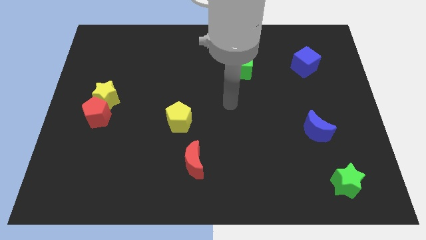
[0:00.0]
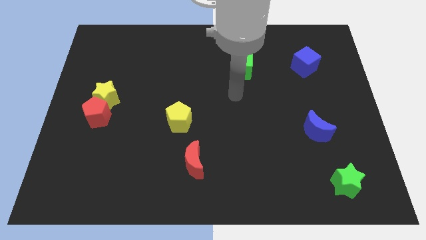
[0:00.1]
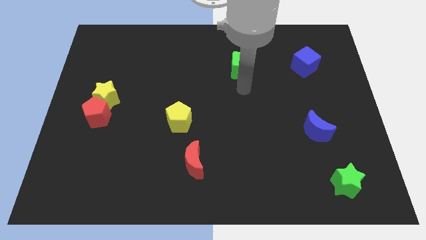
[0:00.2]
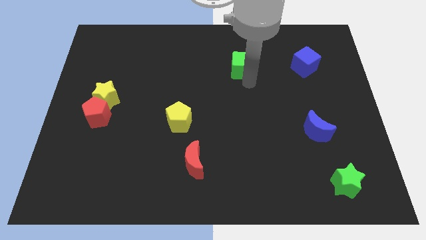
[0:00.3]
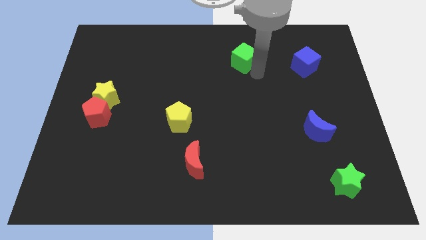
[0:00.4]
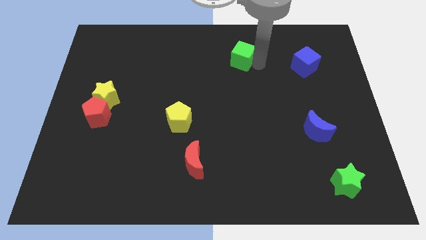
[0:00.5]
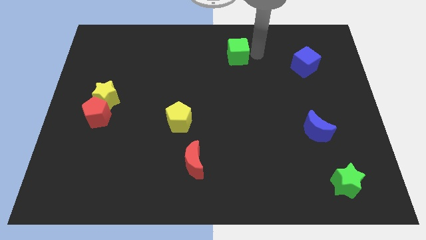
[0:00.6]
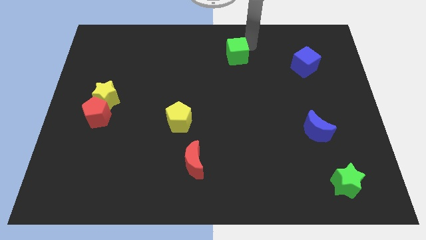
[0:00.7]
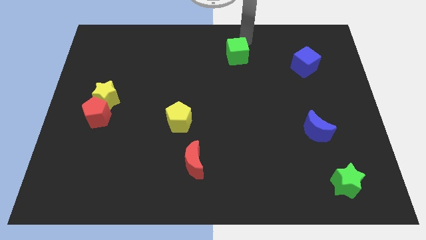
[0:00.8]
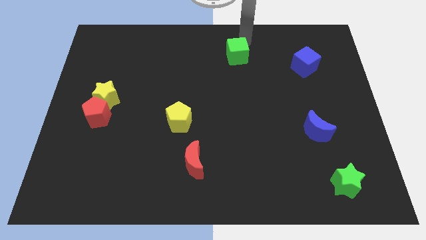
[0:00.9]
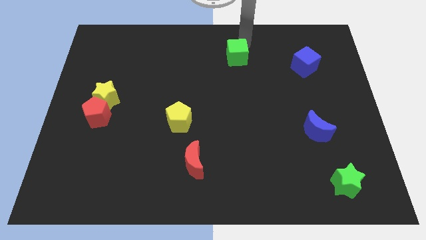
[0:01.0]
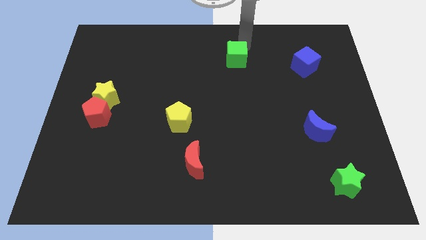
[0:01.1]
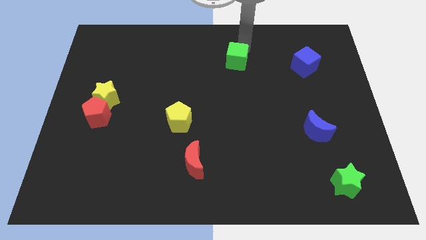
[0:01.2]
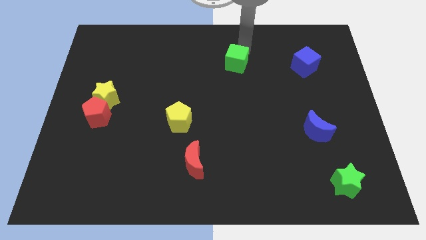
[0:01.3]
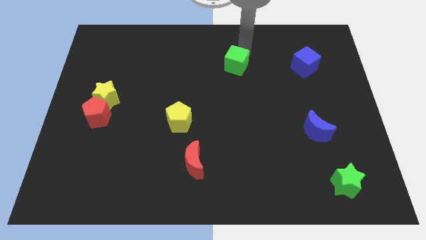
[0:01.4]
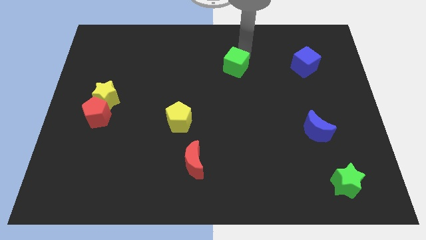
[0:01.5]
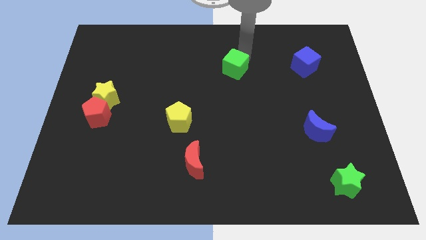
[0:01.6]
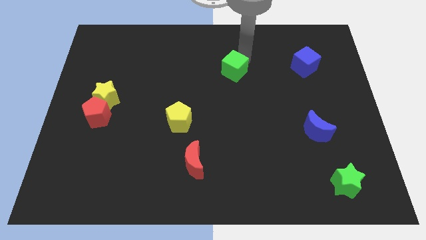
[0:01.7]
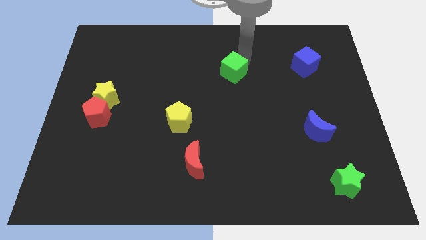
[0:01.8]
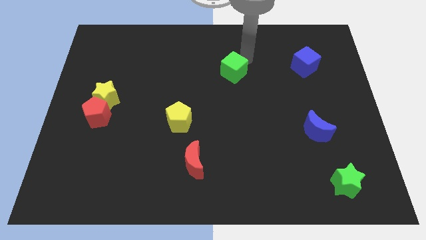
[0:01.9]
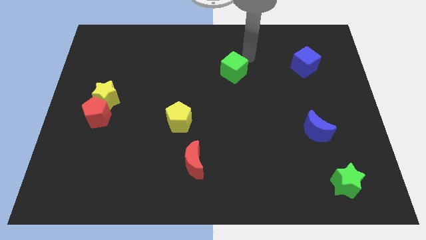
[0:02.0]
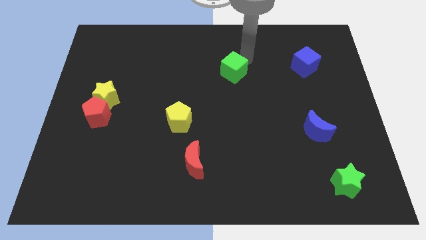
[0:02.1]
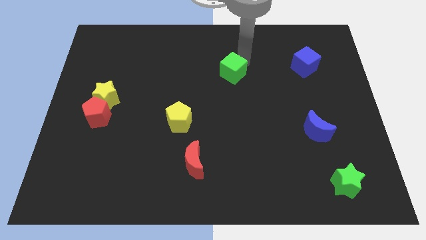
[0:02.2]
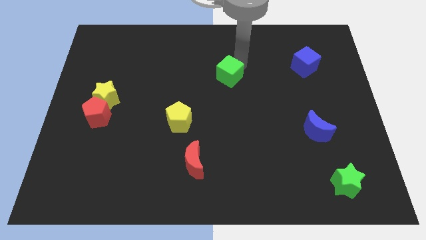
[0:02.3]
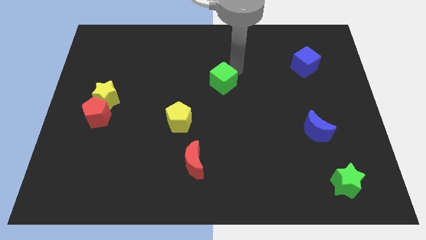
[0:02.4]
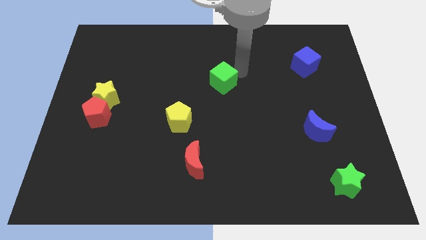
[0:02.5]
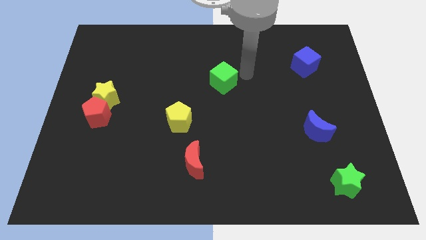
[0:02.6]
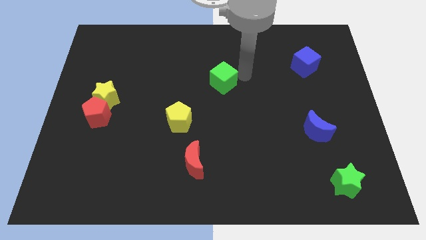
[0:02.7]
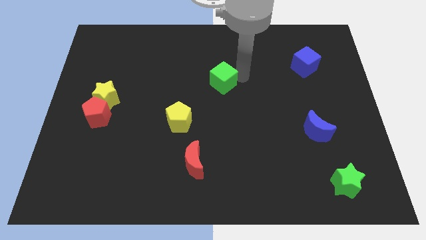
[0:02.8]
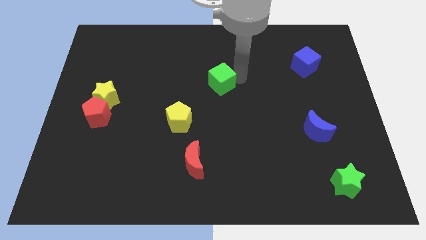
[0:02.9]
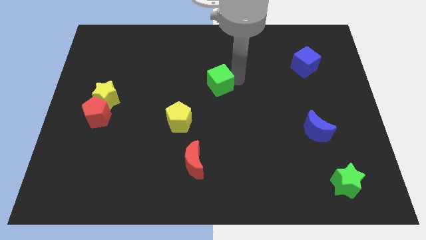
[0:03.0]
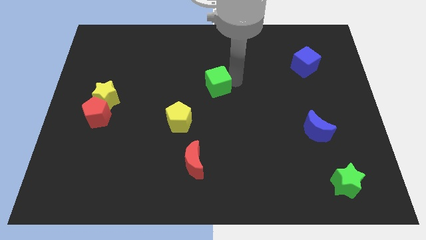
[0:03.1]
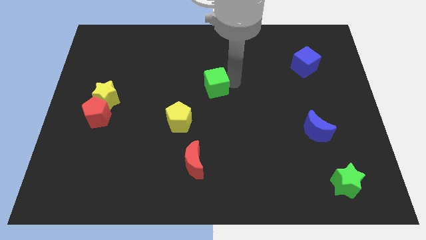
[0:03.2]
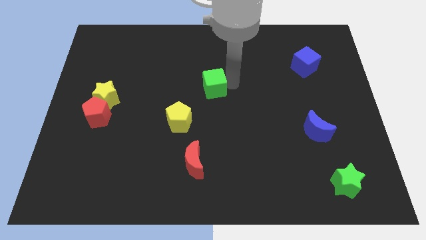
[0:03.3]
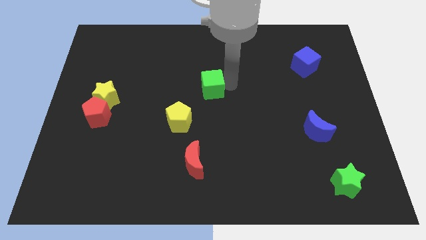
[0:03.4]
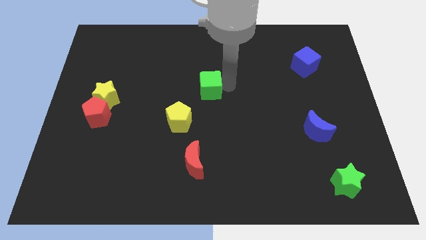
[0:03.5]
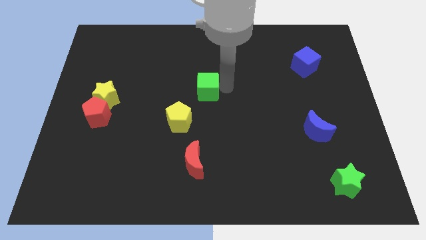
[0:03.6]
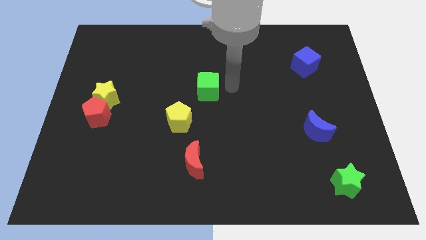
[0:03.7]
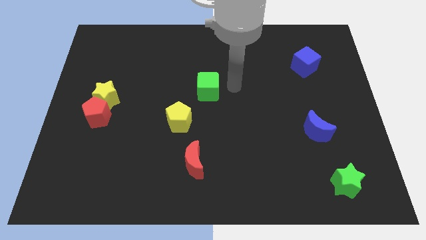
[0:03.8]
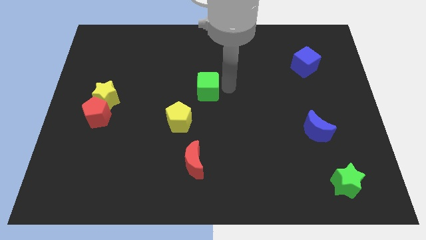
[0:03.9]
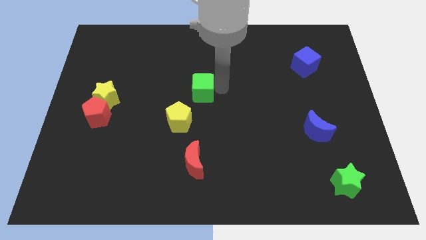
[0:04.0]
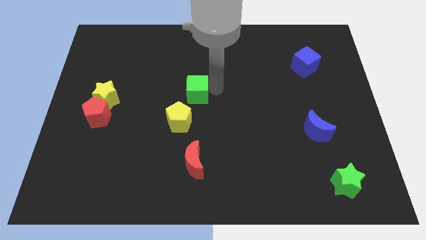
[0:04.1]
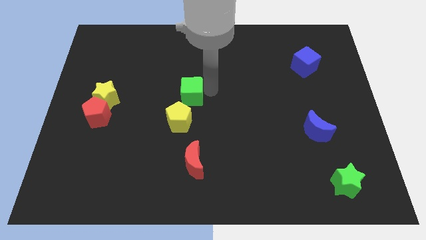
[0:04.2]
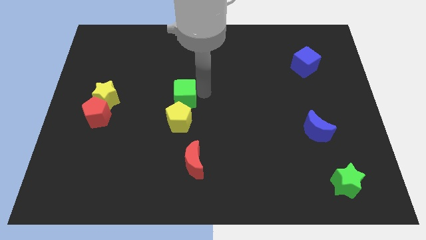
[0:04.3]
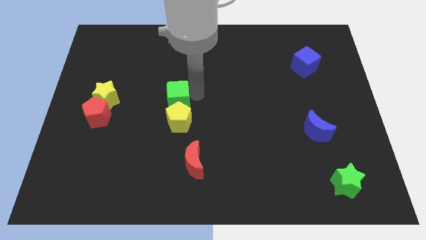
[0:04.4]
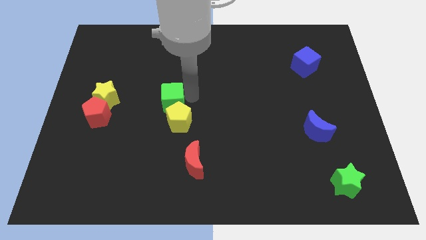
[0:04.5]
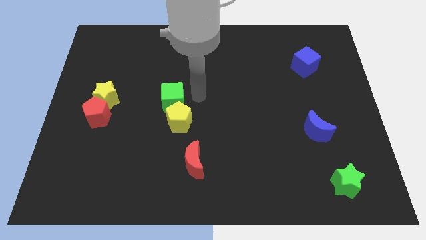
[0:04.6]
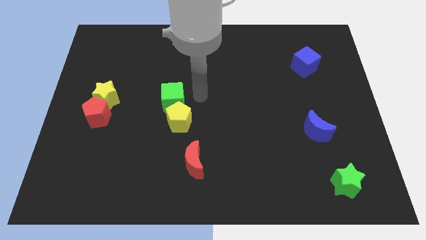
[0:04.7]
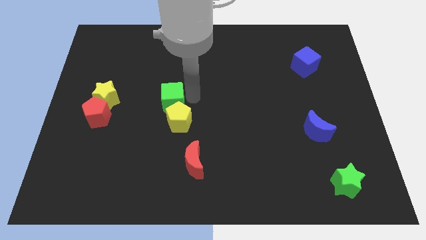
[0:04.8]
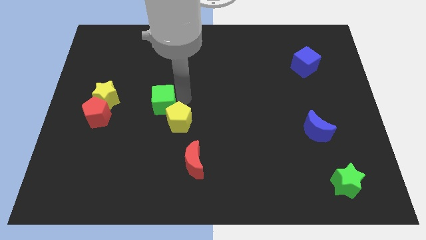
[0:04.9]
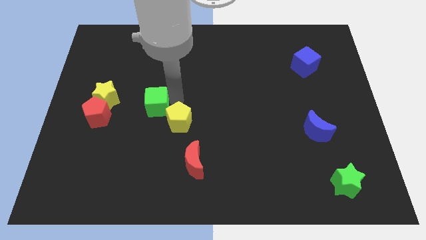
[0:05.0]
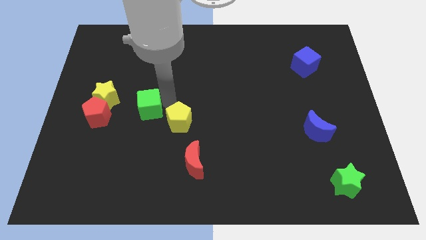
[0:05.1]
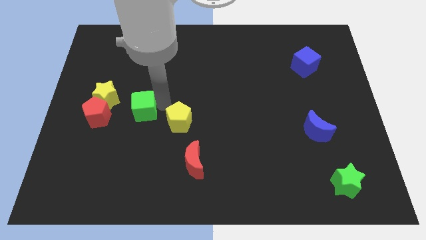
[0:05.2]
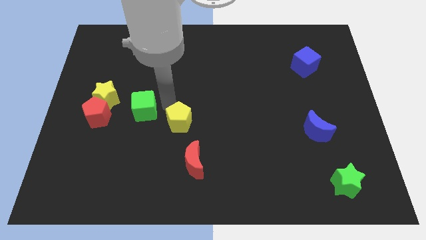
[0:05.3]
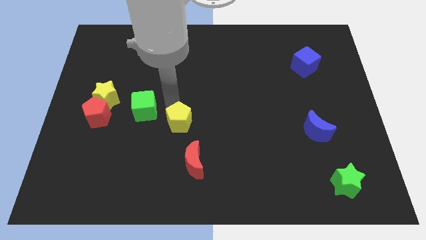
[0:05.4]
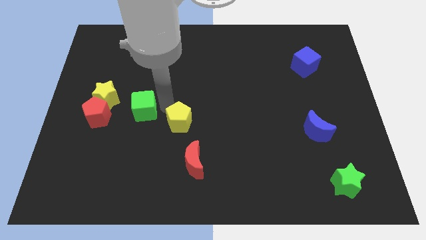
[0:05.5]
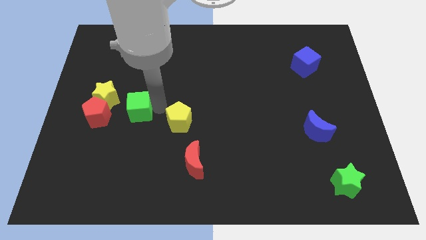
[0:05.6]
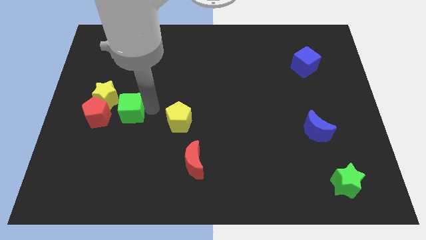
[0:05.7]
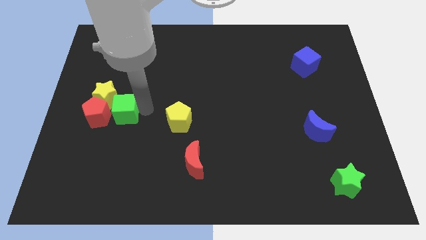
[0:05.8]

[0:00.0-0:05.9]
slide the green cube towards the red pentagon
